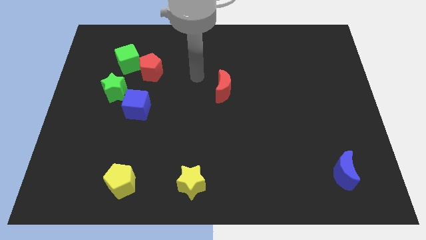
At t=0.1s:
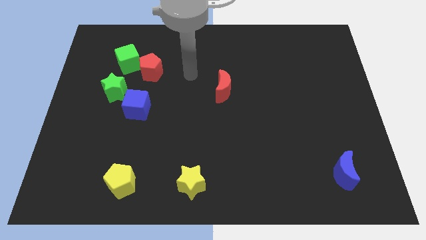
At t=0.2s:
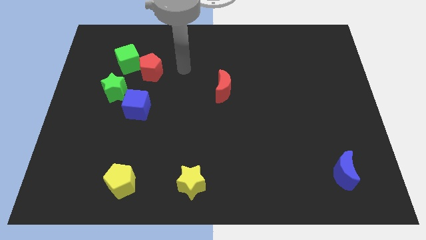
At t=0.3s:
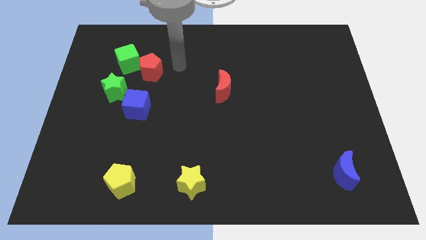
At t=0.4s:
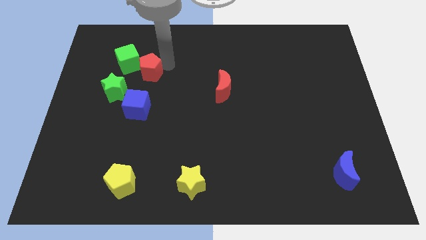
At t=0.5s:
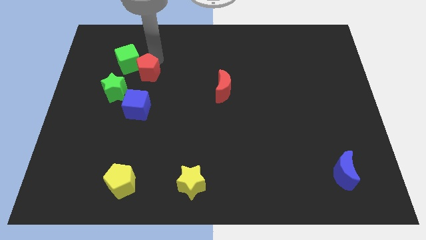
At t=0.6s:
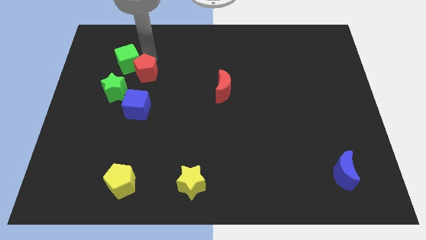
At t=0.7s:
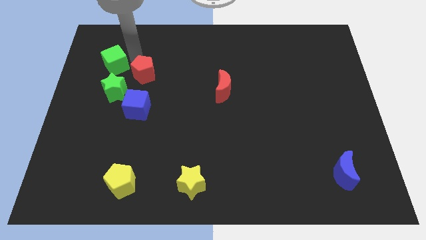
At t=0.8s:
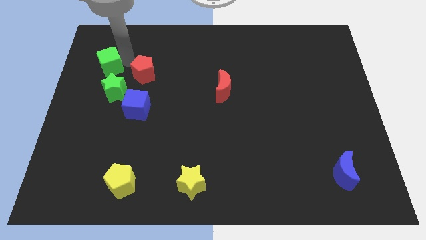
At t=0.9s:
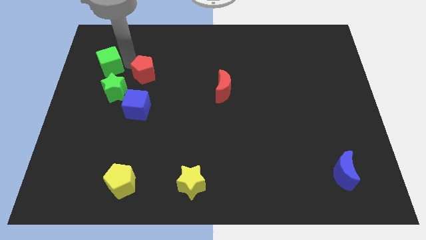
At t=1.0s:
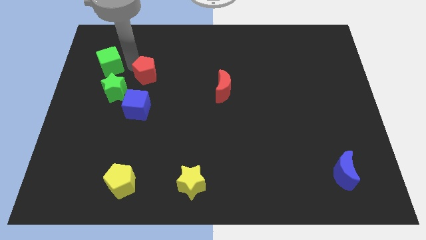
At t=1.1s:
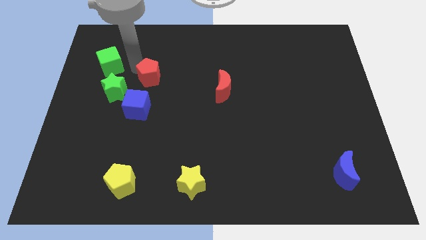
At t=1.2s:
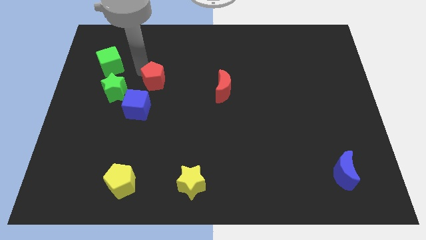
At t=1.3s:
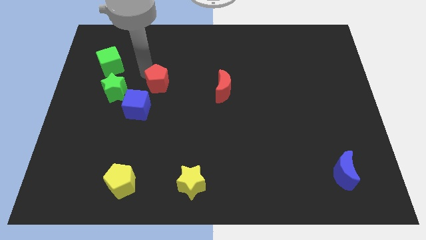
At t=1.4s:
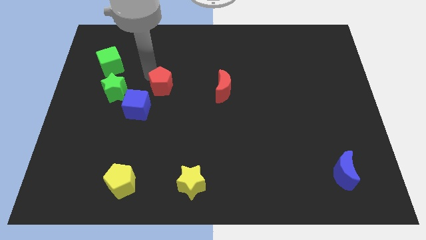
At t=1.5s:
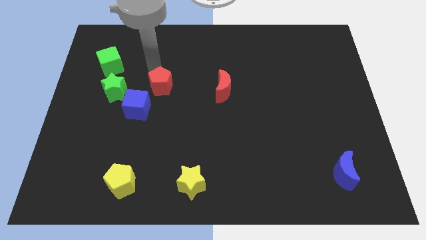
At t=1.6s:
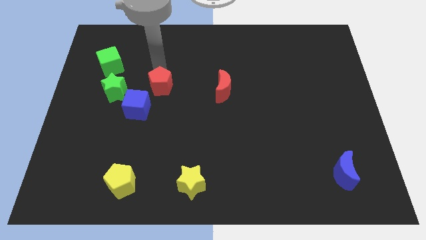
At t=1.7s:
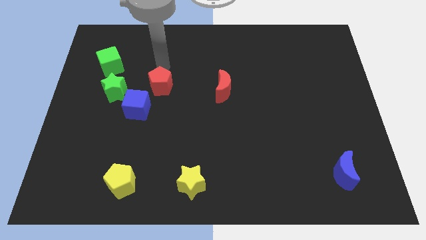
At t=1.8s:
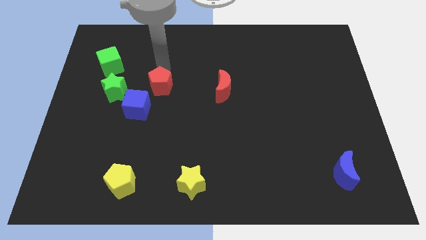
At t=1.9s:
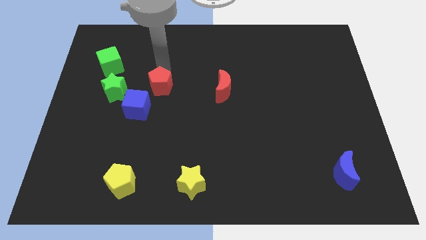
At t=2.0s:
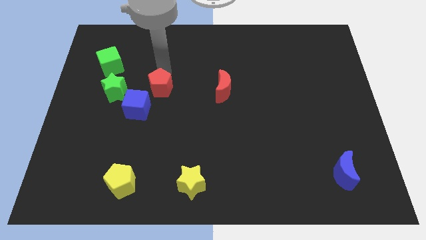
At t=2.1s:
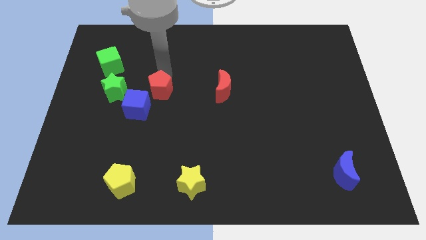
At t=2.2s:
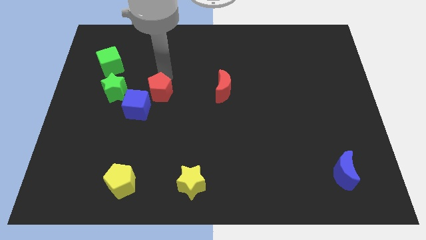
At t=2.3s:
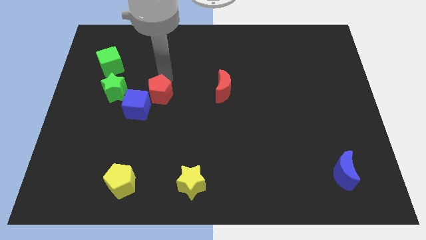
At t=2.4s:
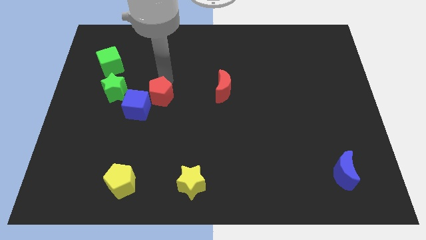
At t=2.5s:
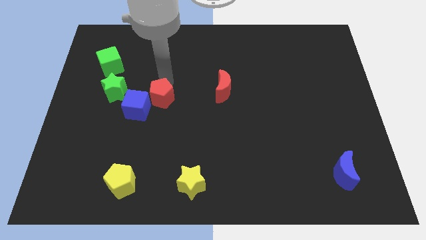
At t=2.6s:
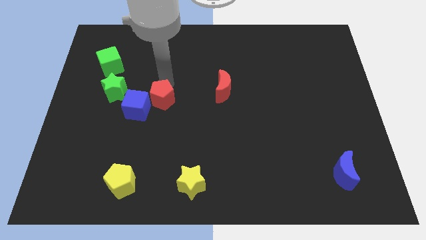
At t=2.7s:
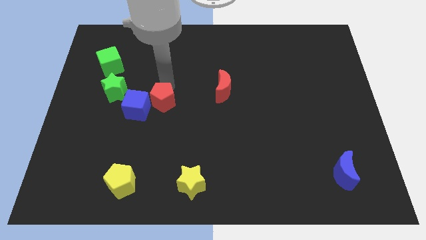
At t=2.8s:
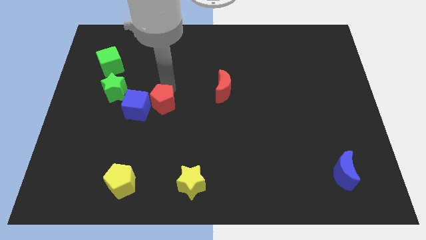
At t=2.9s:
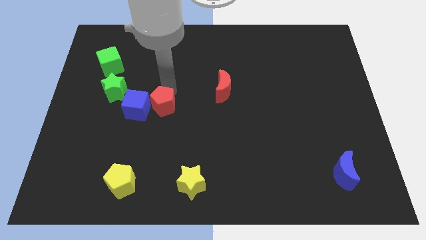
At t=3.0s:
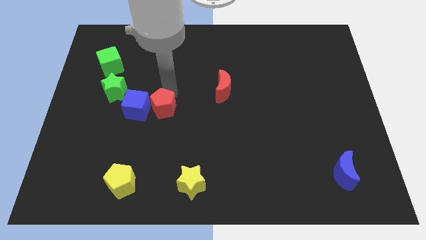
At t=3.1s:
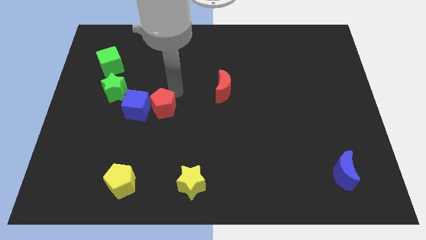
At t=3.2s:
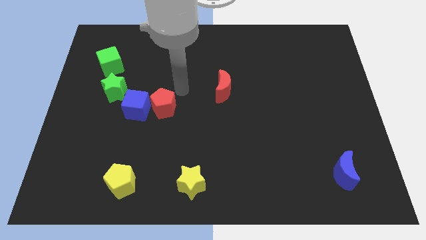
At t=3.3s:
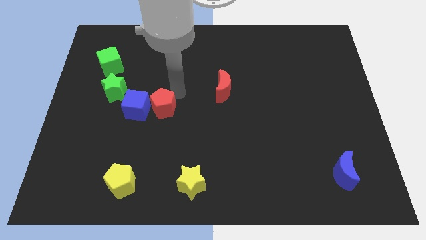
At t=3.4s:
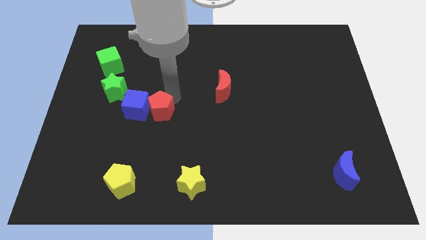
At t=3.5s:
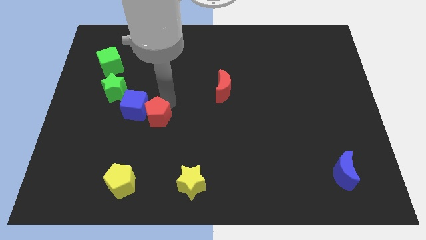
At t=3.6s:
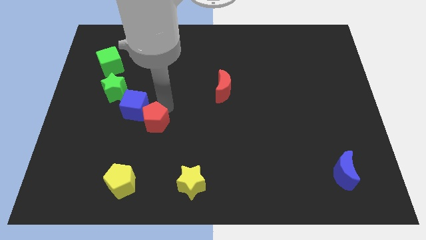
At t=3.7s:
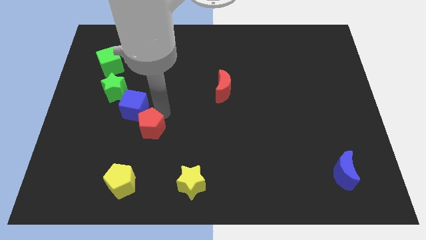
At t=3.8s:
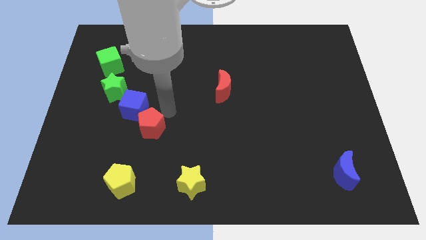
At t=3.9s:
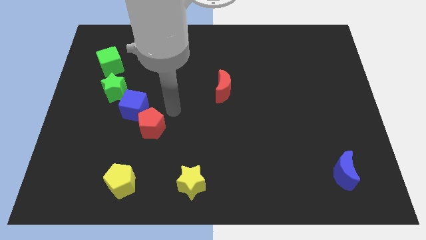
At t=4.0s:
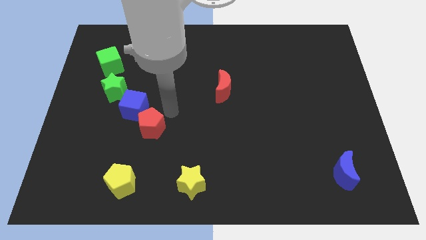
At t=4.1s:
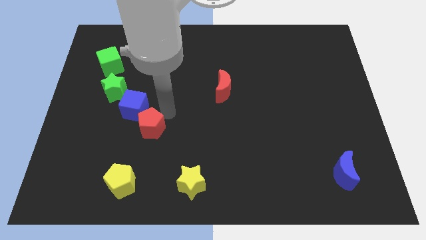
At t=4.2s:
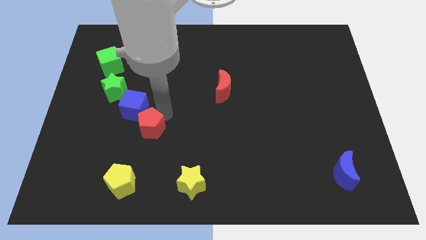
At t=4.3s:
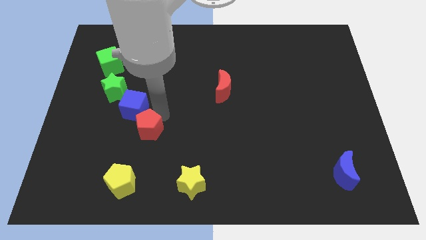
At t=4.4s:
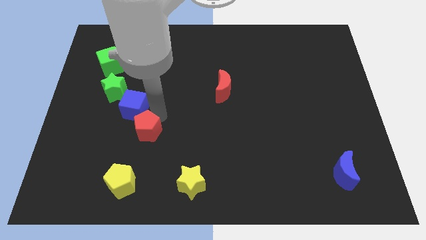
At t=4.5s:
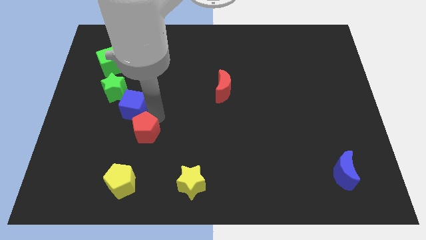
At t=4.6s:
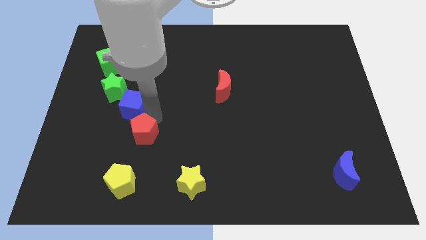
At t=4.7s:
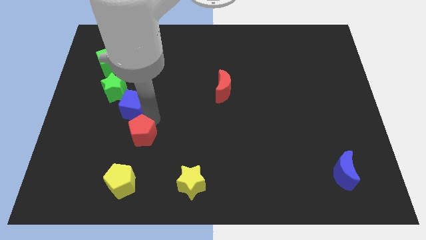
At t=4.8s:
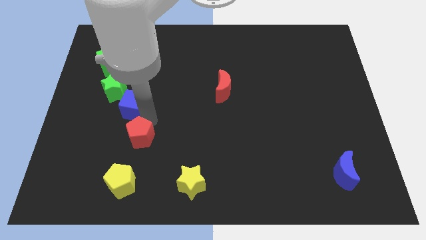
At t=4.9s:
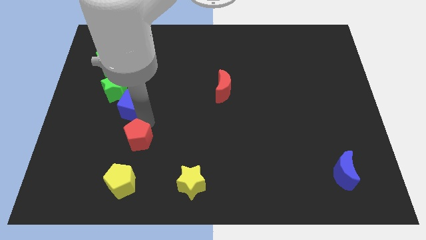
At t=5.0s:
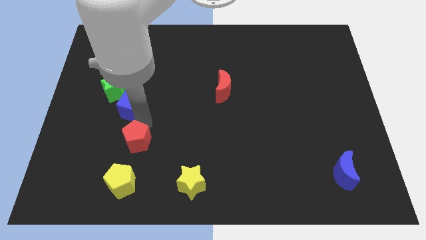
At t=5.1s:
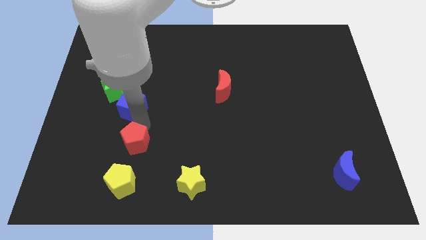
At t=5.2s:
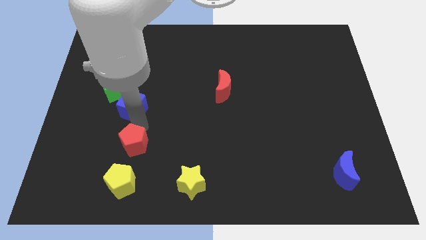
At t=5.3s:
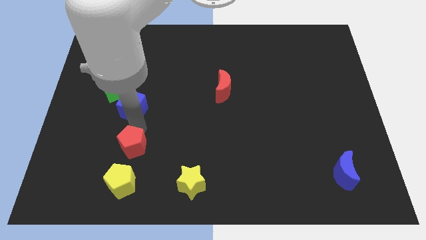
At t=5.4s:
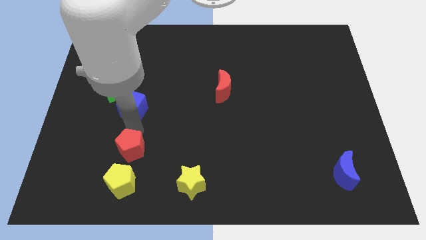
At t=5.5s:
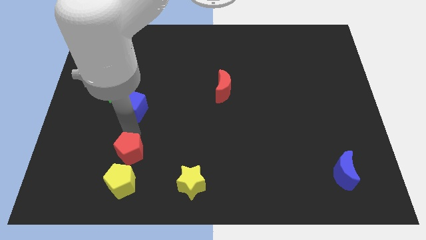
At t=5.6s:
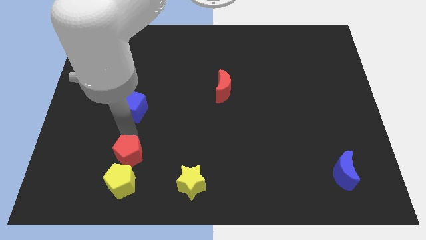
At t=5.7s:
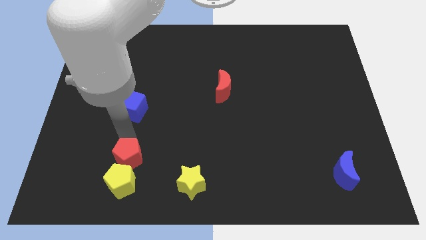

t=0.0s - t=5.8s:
slide the red pentagon to the yellow pentagon
